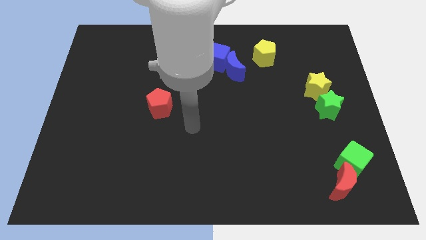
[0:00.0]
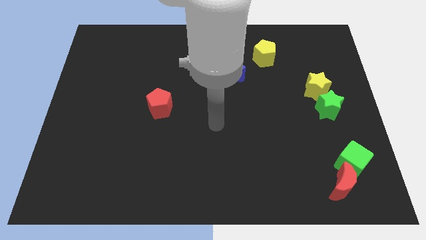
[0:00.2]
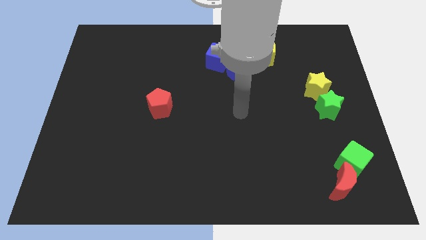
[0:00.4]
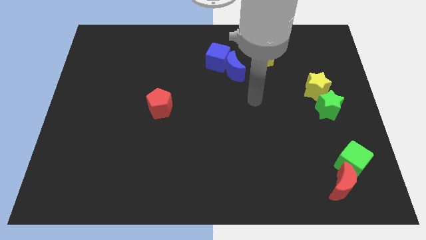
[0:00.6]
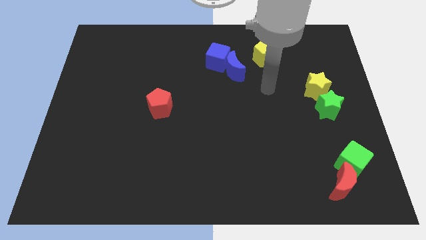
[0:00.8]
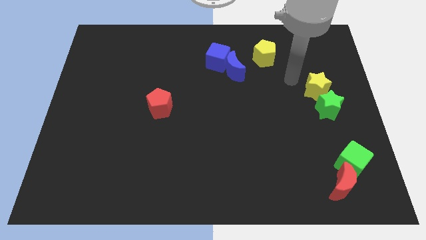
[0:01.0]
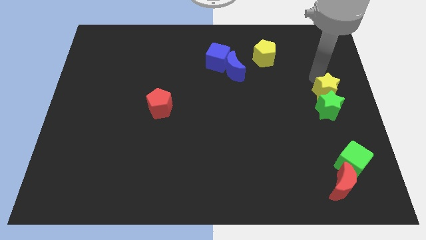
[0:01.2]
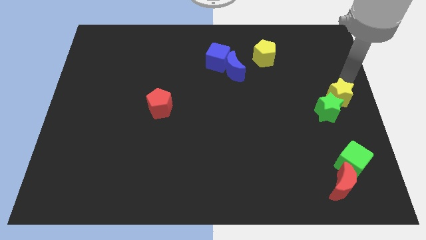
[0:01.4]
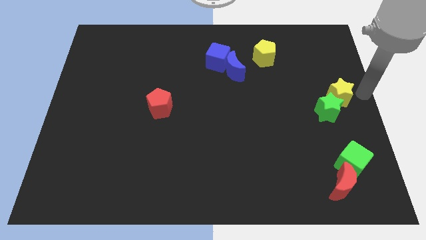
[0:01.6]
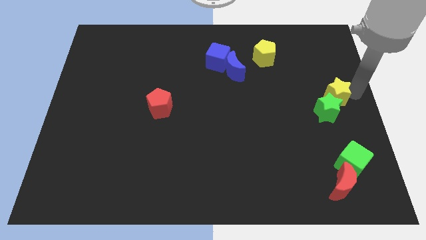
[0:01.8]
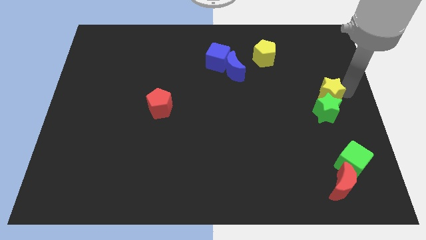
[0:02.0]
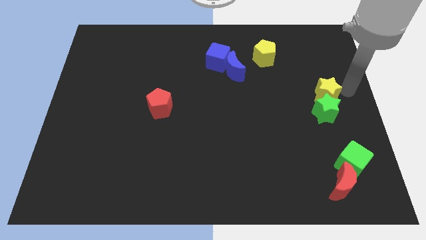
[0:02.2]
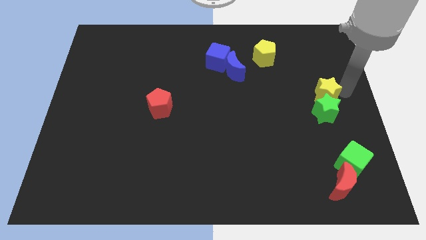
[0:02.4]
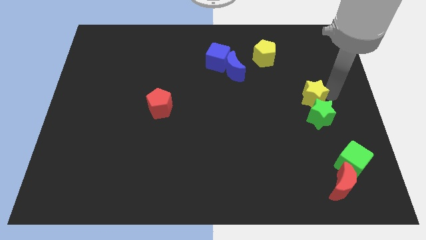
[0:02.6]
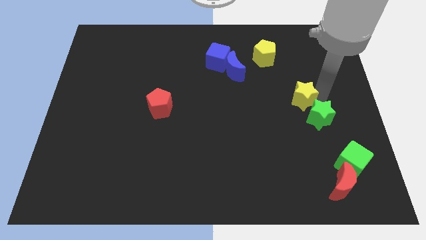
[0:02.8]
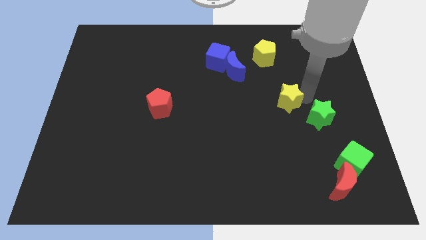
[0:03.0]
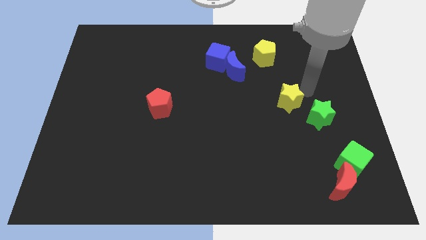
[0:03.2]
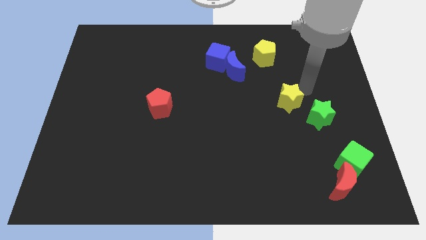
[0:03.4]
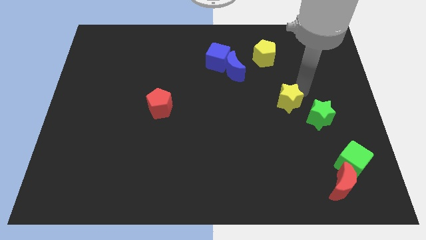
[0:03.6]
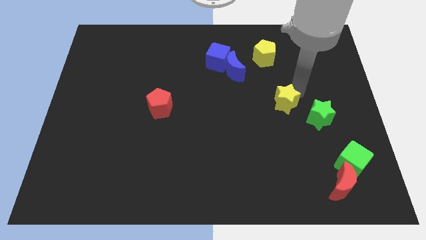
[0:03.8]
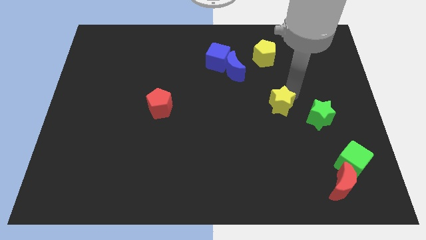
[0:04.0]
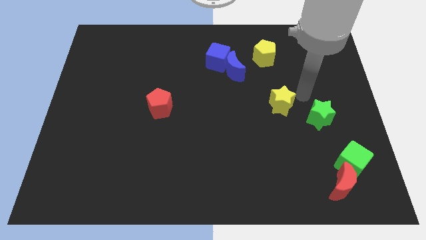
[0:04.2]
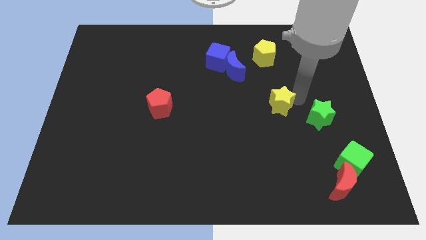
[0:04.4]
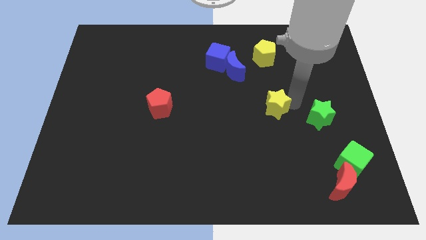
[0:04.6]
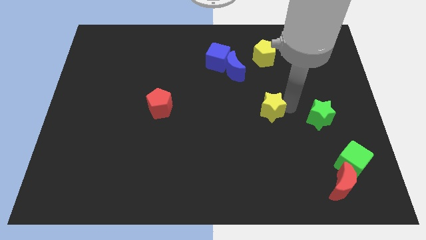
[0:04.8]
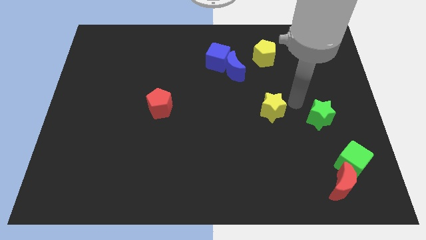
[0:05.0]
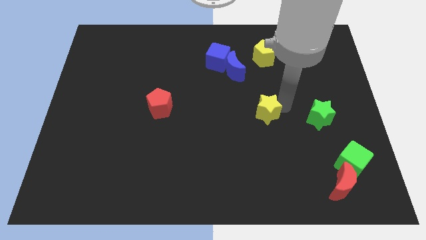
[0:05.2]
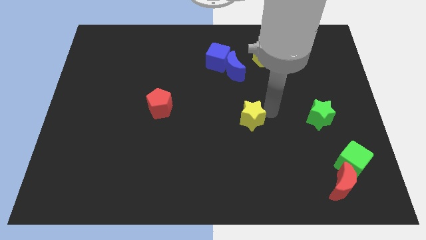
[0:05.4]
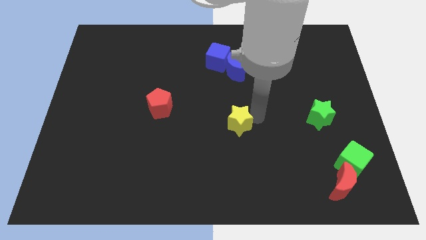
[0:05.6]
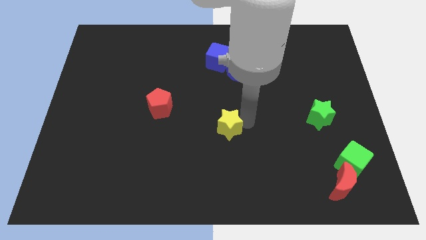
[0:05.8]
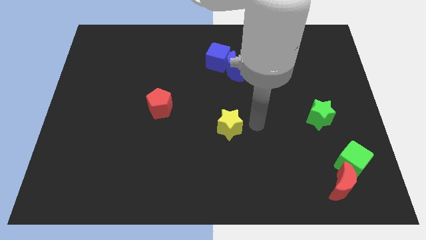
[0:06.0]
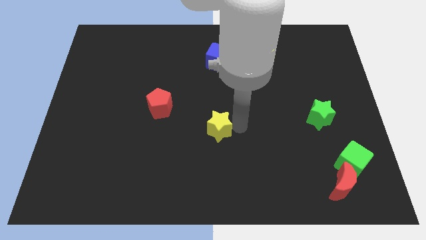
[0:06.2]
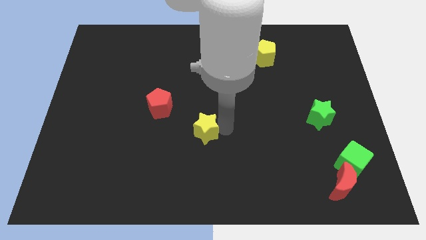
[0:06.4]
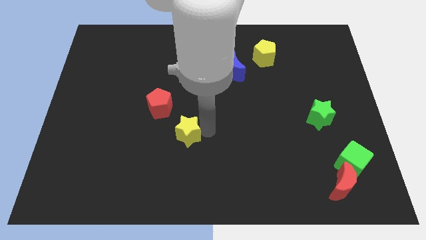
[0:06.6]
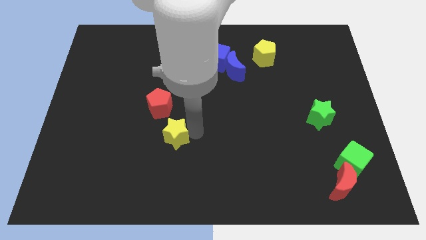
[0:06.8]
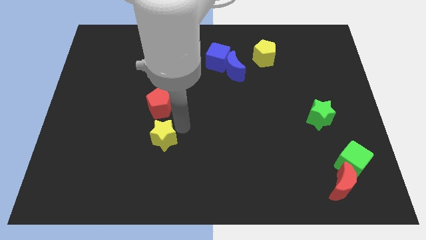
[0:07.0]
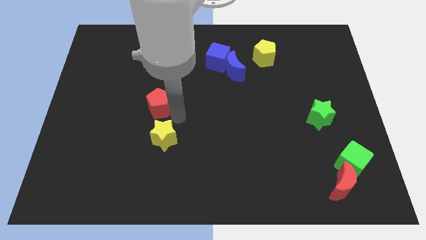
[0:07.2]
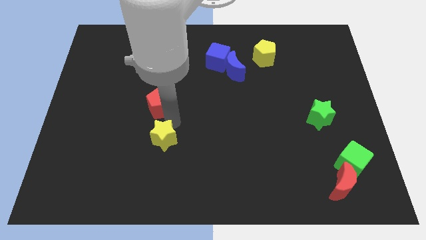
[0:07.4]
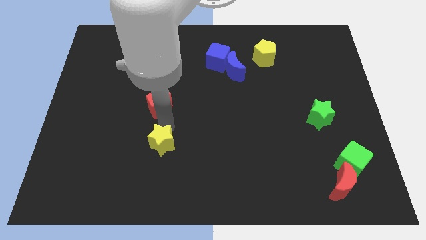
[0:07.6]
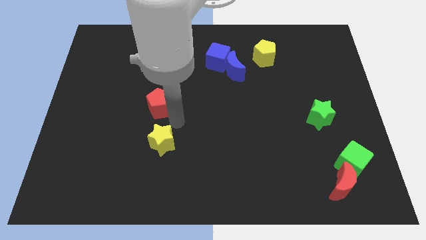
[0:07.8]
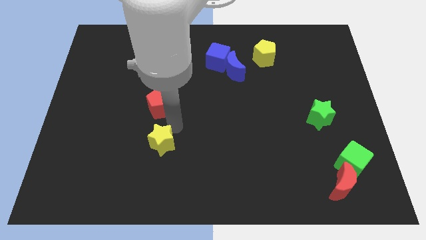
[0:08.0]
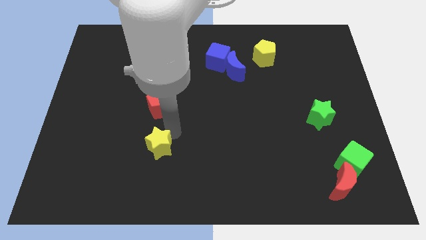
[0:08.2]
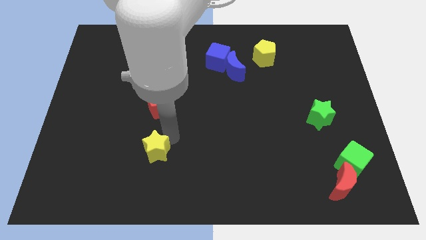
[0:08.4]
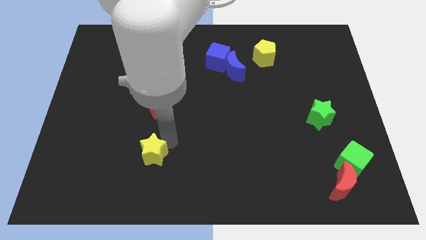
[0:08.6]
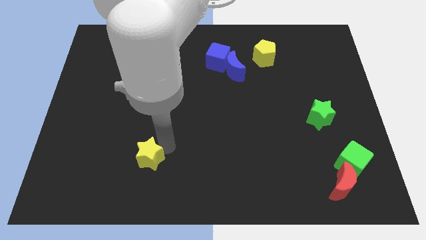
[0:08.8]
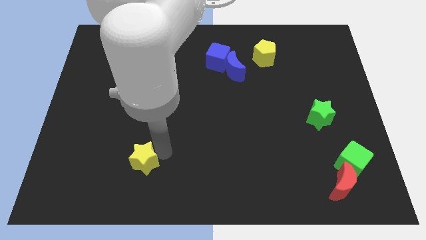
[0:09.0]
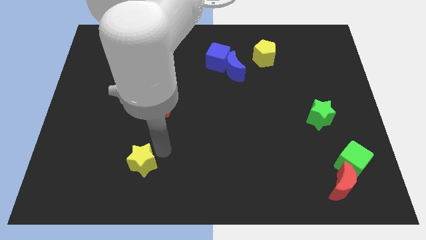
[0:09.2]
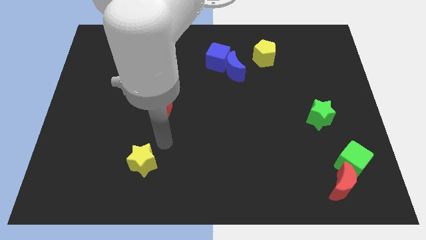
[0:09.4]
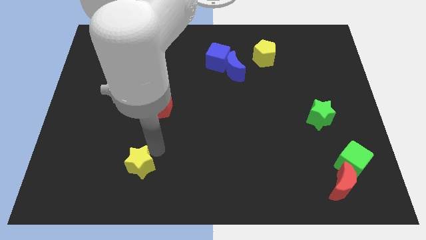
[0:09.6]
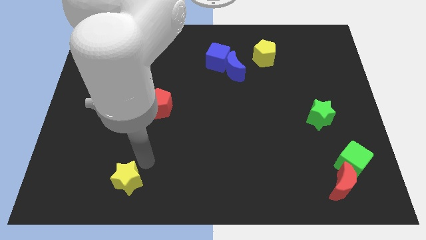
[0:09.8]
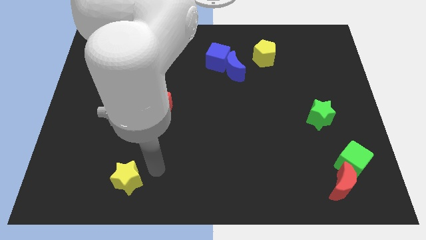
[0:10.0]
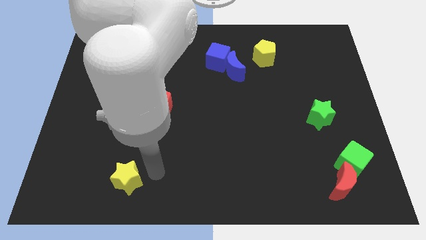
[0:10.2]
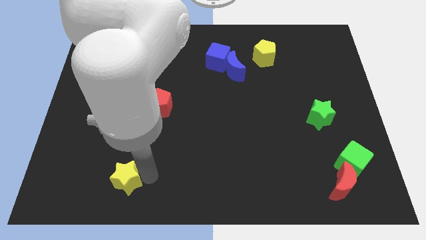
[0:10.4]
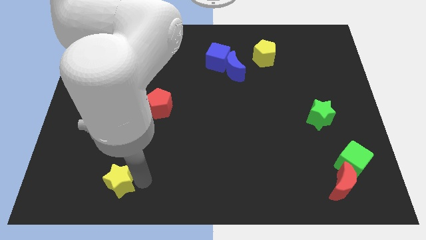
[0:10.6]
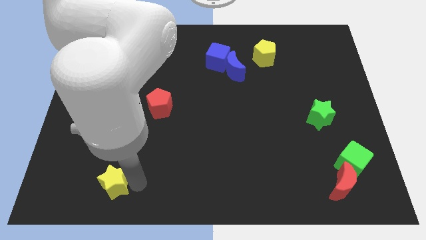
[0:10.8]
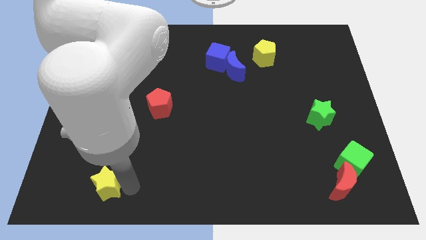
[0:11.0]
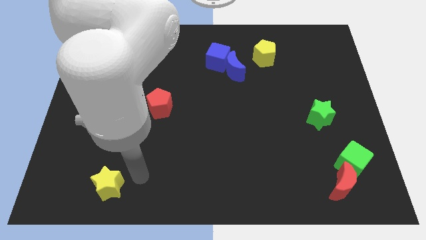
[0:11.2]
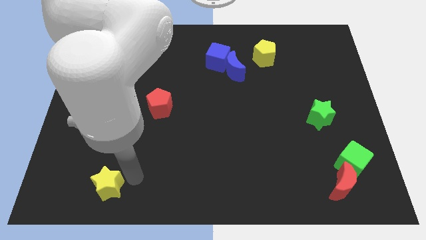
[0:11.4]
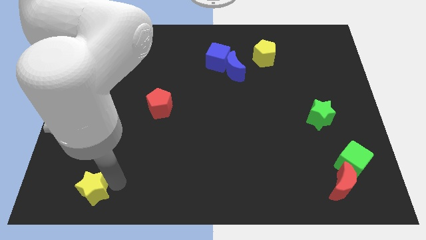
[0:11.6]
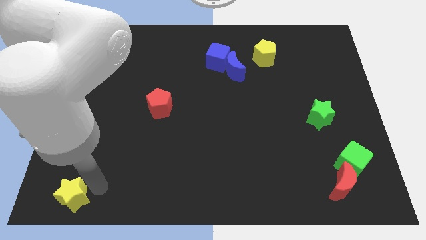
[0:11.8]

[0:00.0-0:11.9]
push the yellow star to the bottom left of the board
